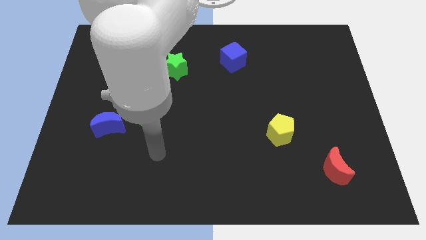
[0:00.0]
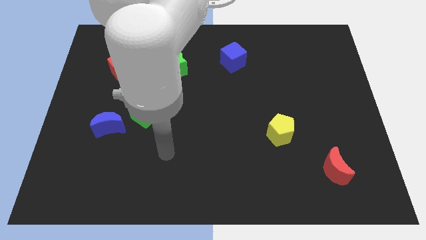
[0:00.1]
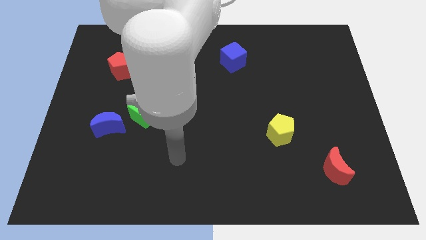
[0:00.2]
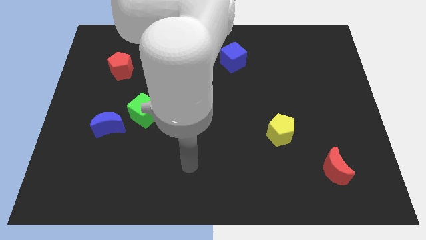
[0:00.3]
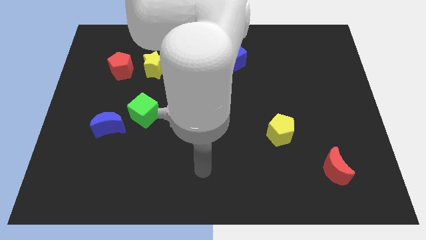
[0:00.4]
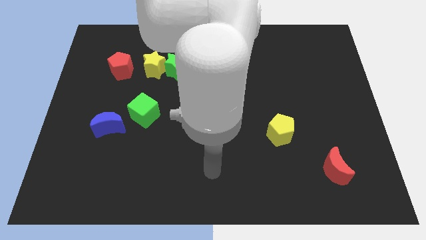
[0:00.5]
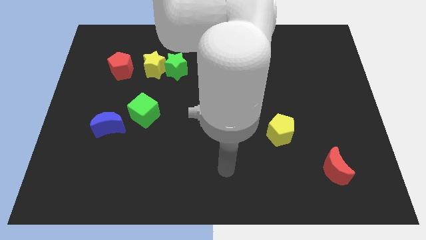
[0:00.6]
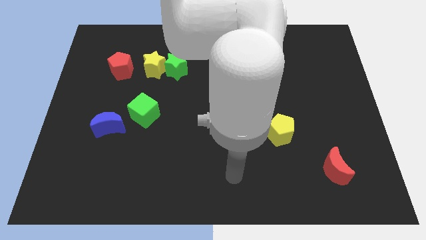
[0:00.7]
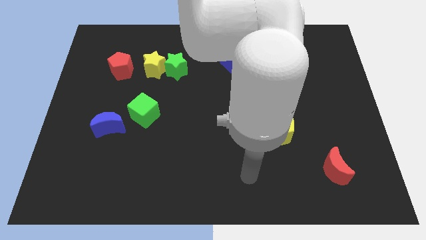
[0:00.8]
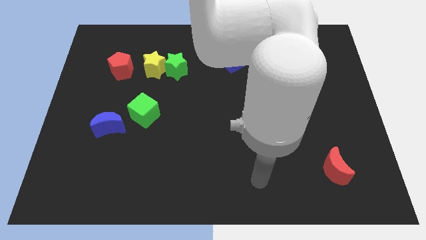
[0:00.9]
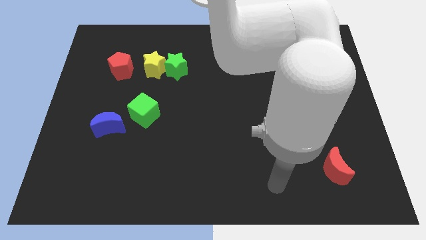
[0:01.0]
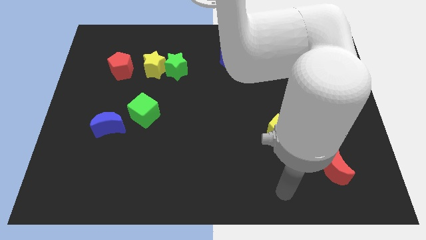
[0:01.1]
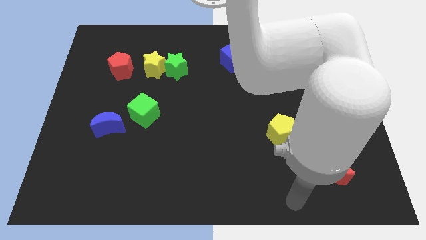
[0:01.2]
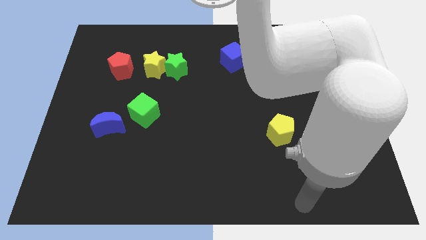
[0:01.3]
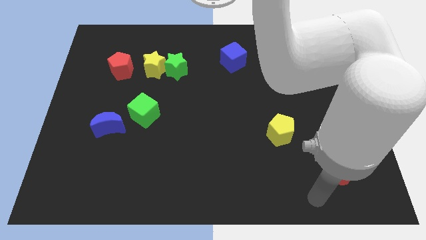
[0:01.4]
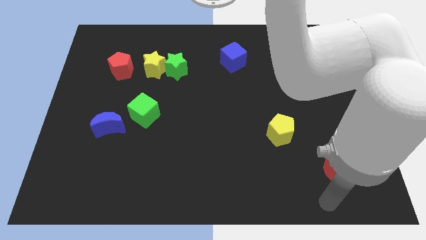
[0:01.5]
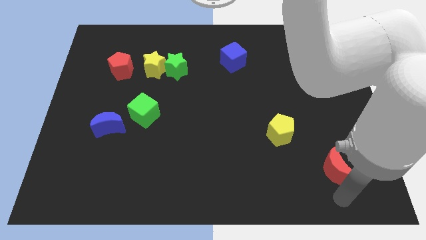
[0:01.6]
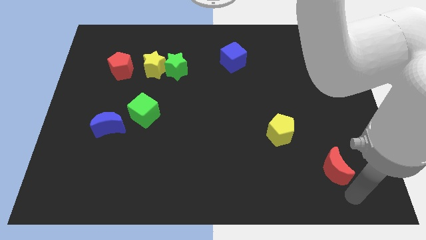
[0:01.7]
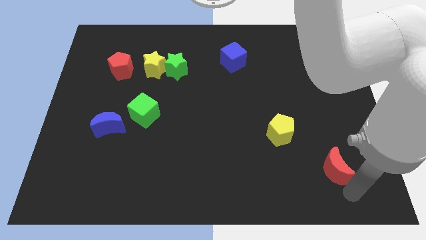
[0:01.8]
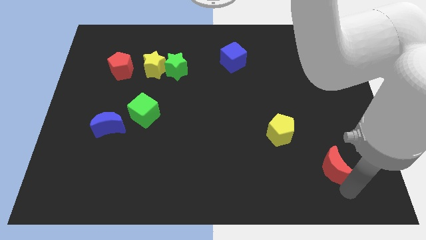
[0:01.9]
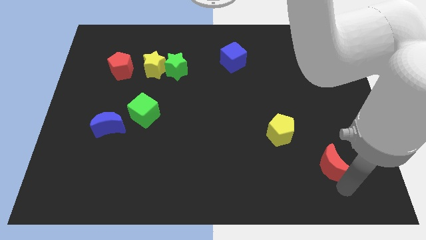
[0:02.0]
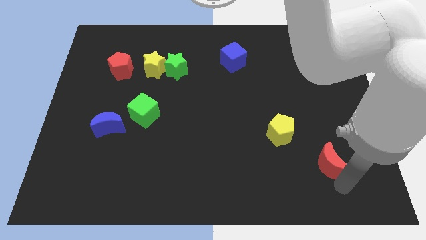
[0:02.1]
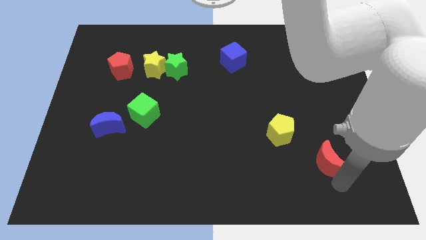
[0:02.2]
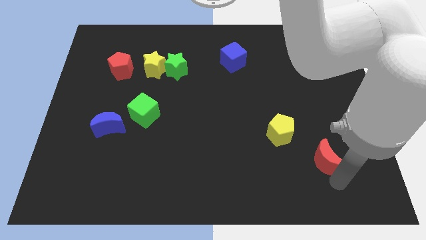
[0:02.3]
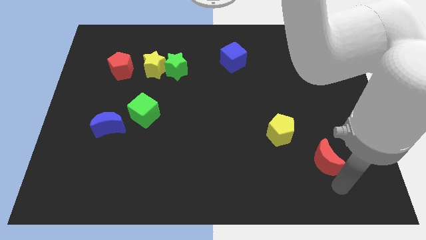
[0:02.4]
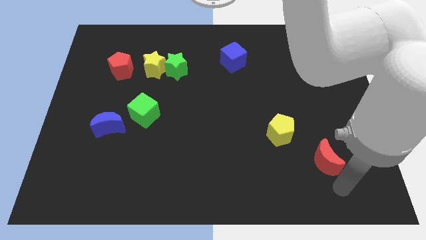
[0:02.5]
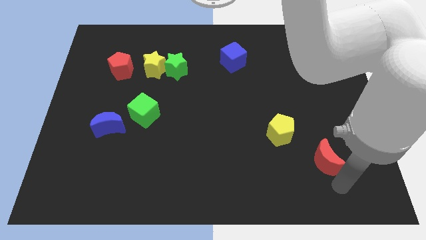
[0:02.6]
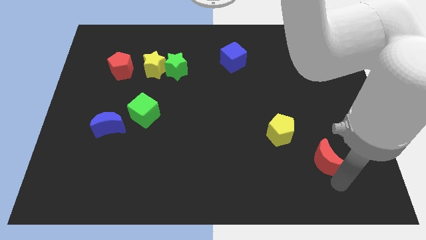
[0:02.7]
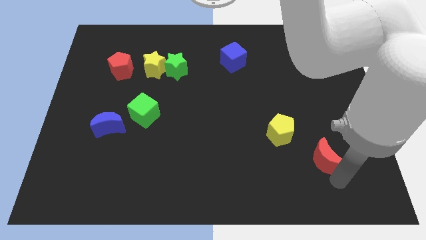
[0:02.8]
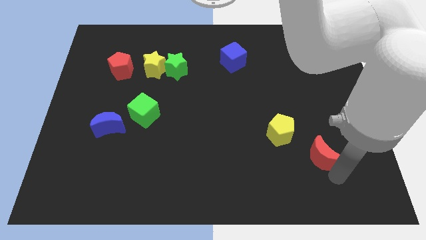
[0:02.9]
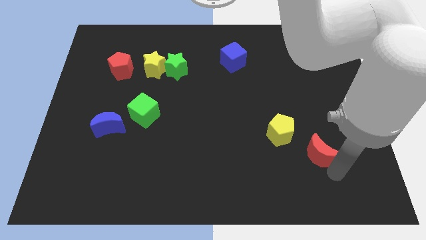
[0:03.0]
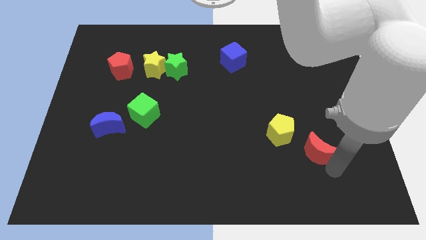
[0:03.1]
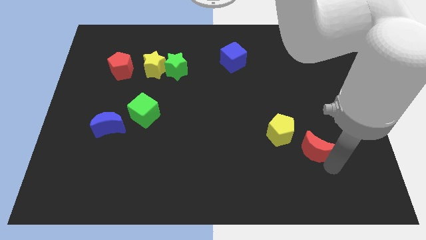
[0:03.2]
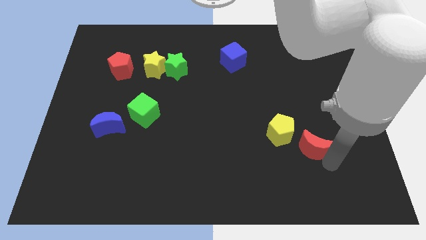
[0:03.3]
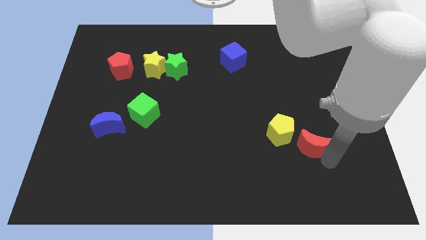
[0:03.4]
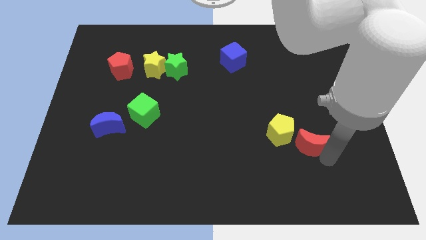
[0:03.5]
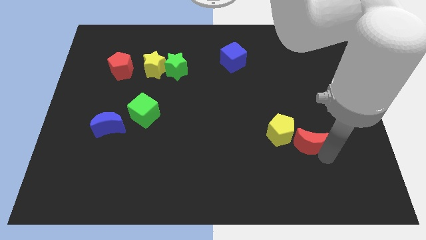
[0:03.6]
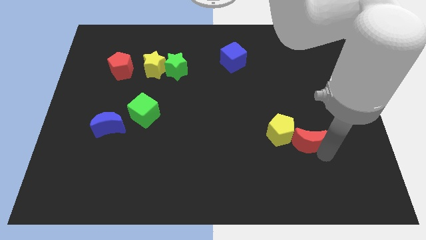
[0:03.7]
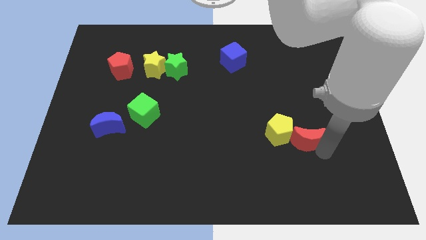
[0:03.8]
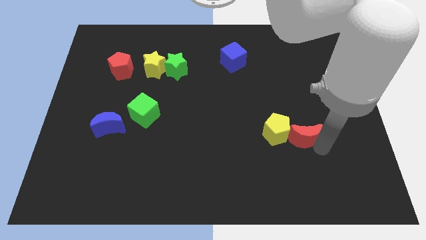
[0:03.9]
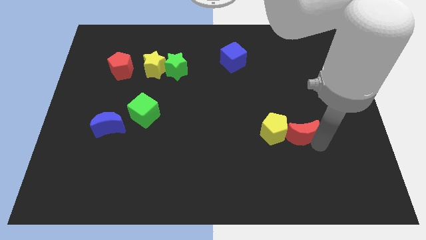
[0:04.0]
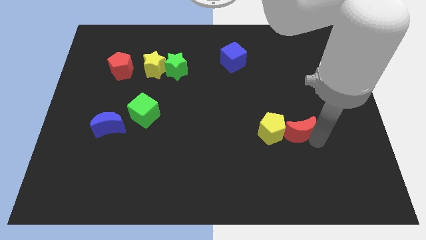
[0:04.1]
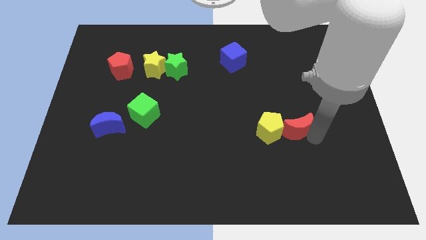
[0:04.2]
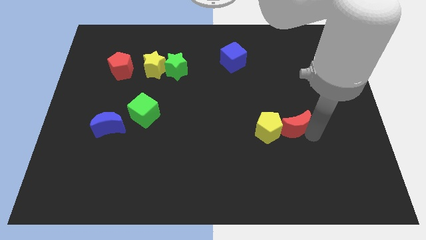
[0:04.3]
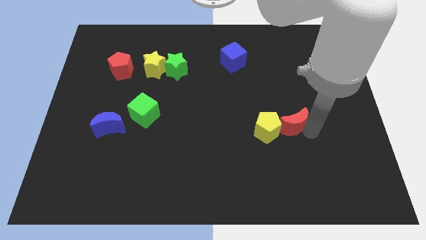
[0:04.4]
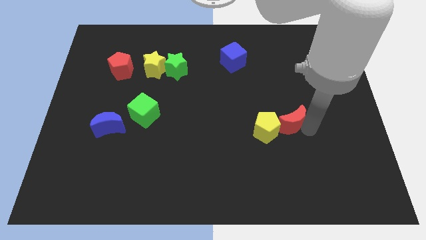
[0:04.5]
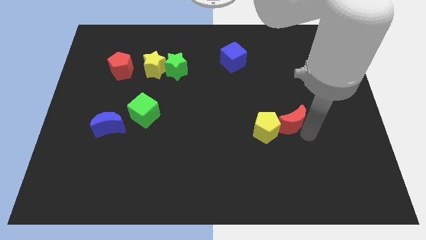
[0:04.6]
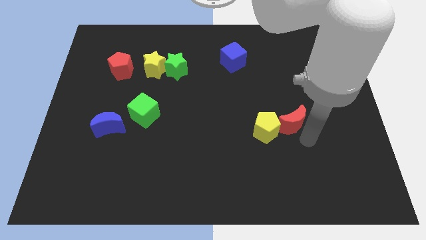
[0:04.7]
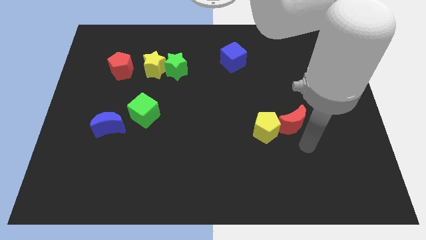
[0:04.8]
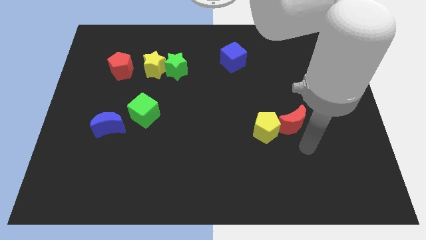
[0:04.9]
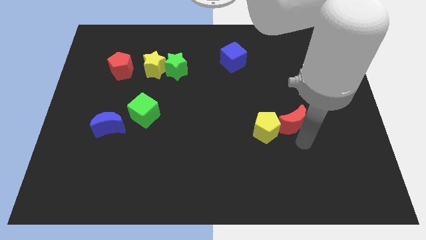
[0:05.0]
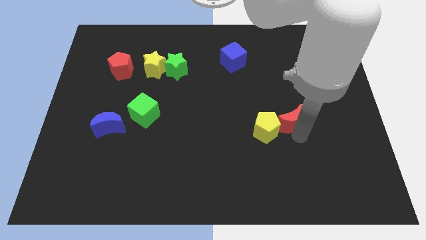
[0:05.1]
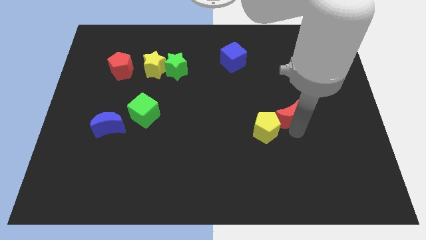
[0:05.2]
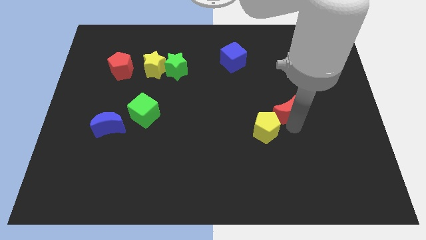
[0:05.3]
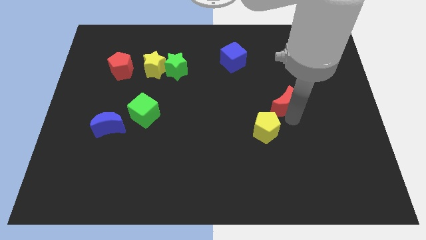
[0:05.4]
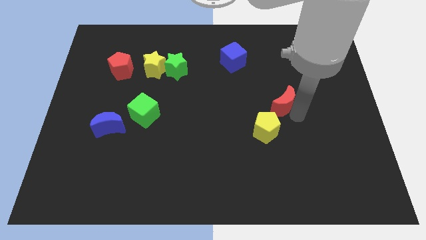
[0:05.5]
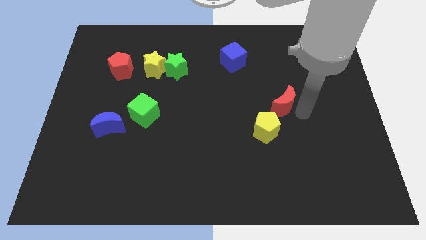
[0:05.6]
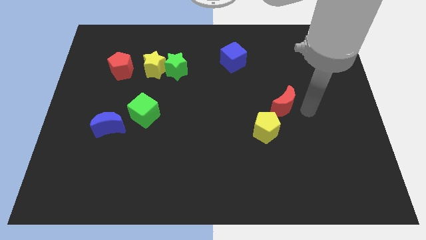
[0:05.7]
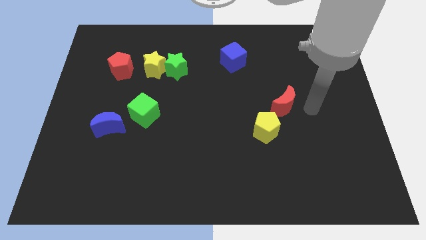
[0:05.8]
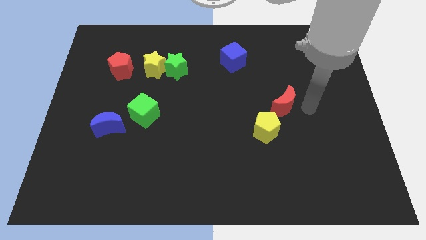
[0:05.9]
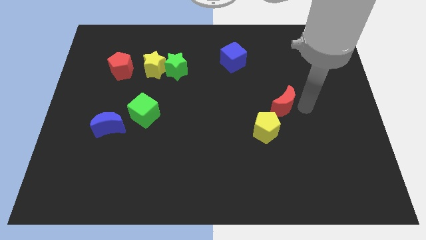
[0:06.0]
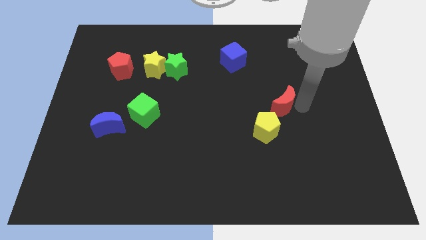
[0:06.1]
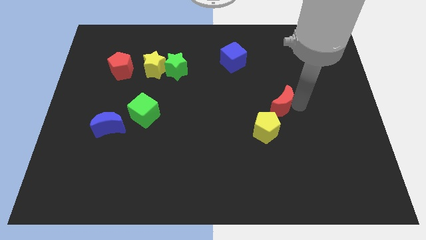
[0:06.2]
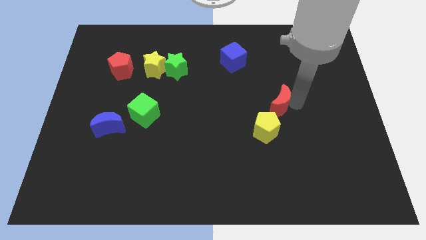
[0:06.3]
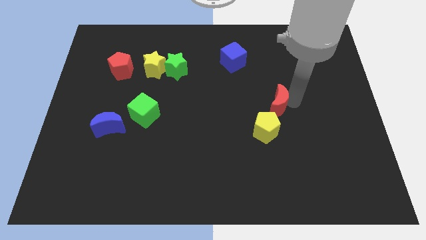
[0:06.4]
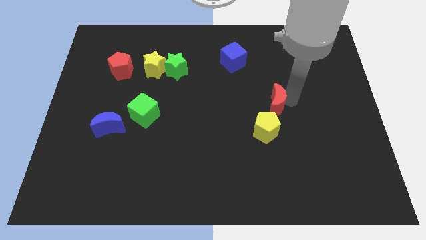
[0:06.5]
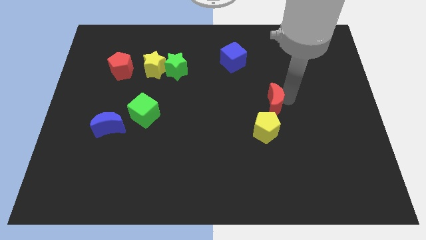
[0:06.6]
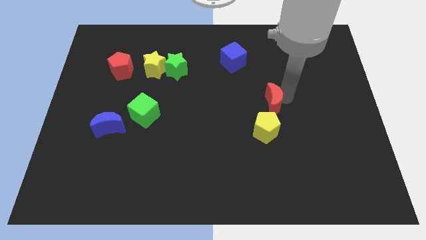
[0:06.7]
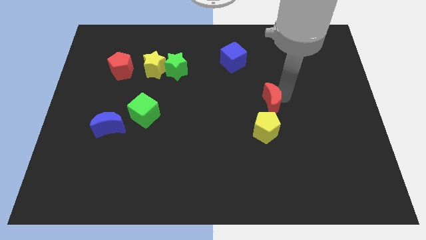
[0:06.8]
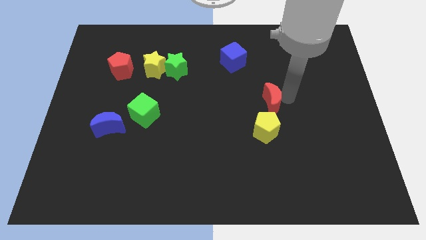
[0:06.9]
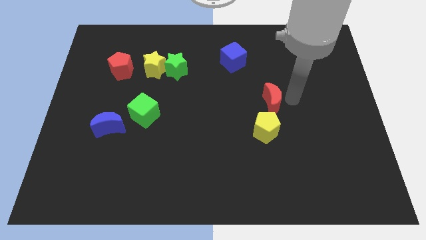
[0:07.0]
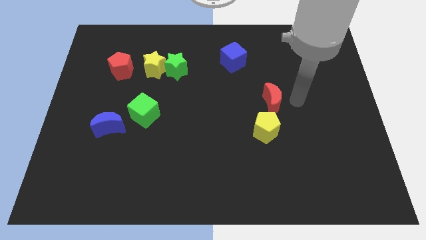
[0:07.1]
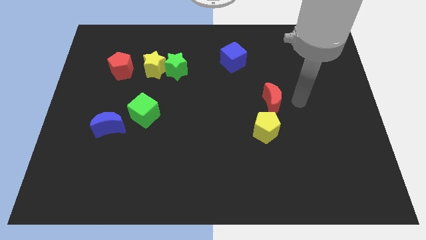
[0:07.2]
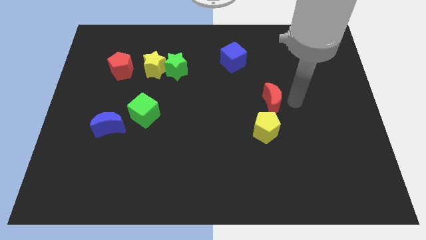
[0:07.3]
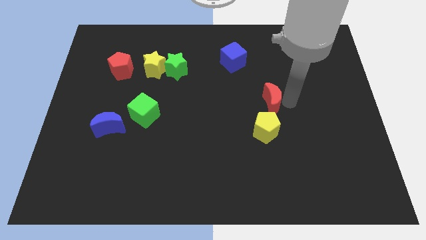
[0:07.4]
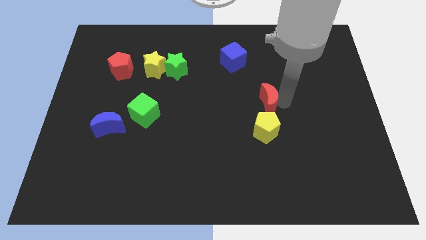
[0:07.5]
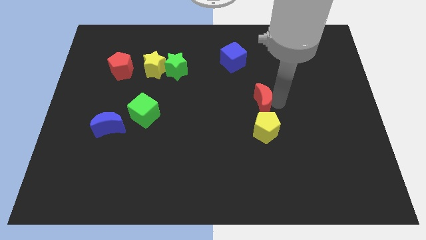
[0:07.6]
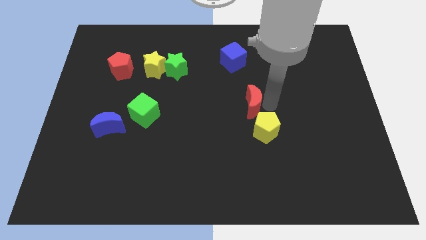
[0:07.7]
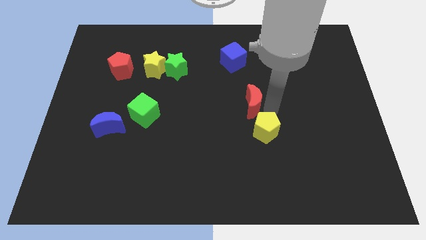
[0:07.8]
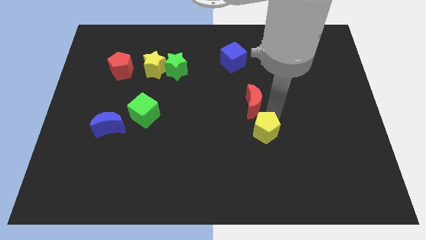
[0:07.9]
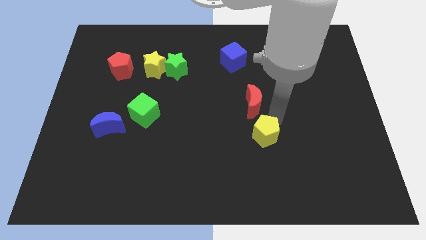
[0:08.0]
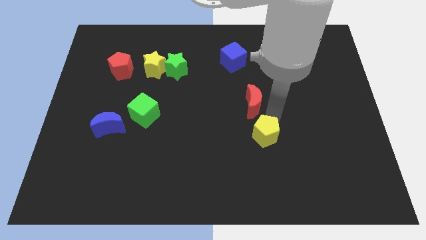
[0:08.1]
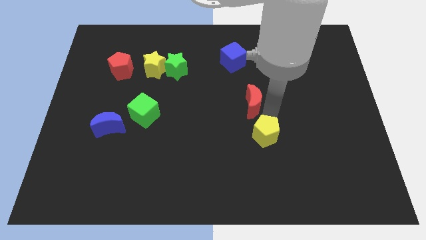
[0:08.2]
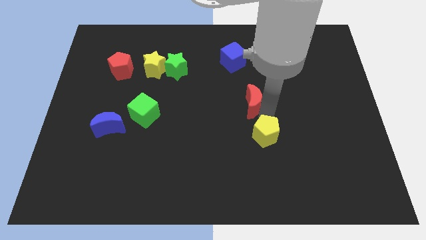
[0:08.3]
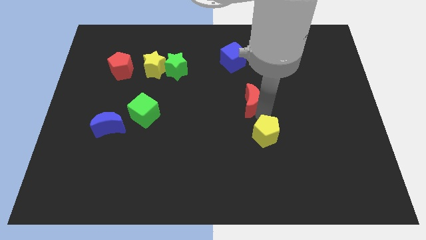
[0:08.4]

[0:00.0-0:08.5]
push the red moon below the blue cube
